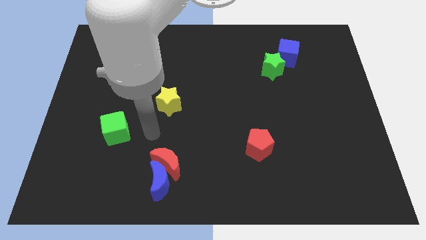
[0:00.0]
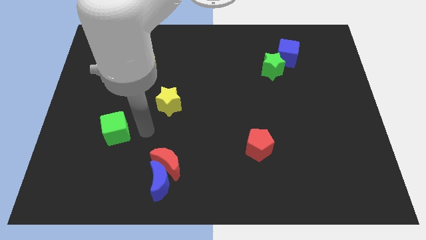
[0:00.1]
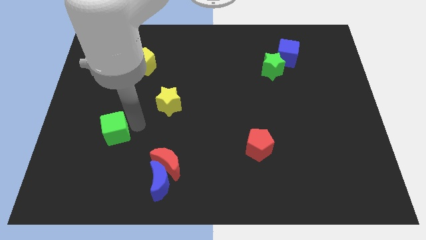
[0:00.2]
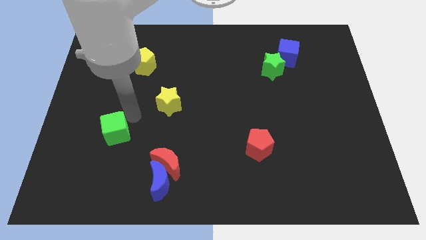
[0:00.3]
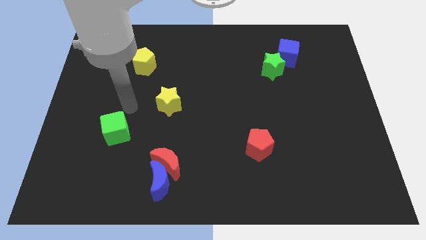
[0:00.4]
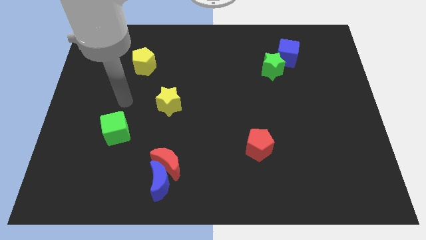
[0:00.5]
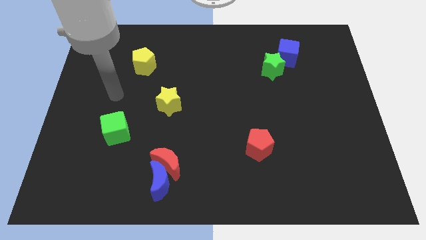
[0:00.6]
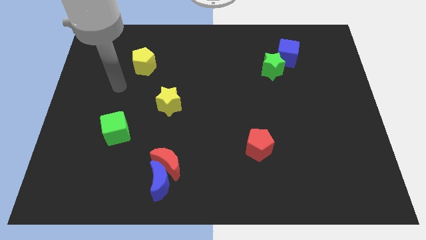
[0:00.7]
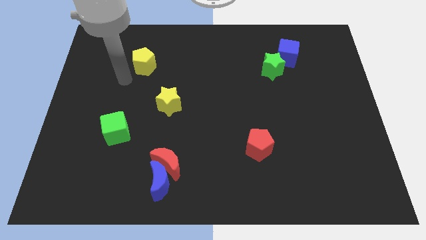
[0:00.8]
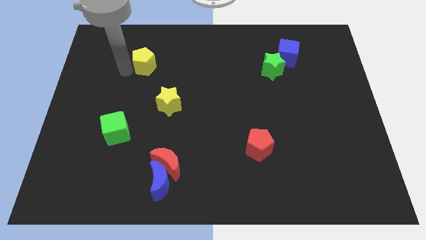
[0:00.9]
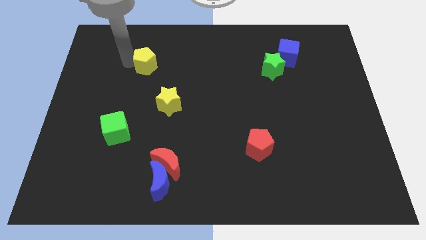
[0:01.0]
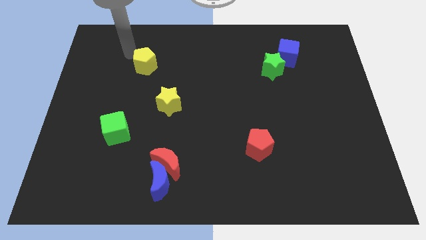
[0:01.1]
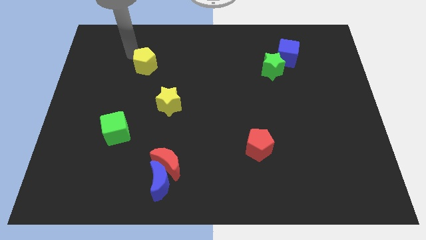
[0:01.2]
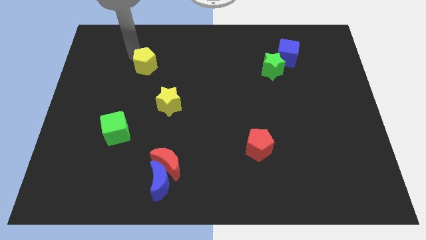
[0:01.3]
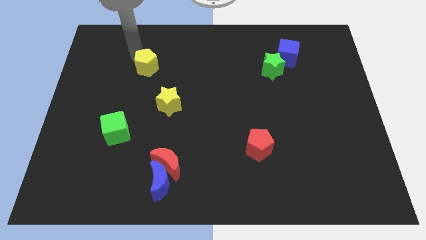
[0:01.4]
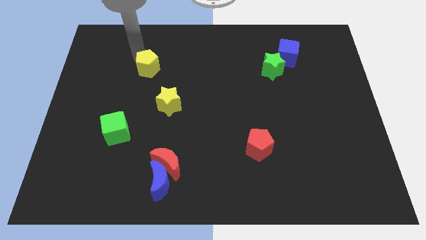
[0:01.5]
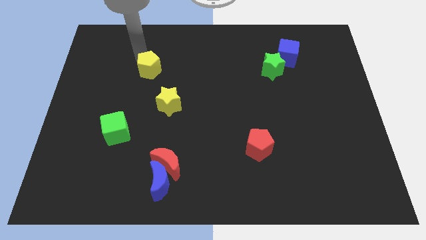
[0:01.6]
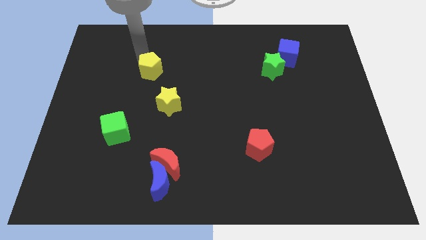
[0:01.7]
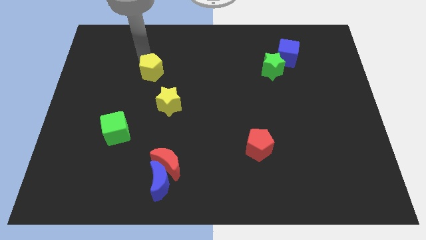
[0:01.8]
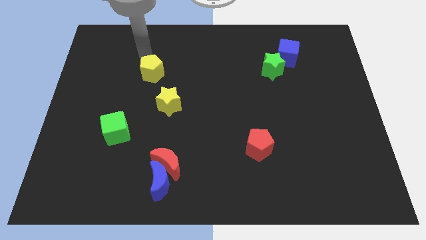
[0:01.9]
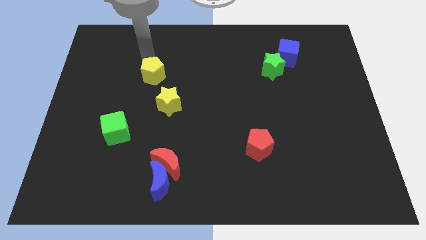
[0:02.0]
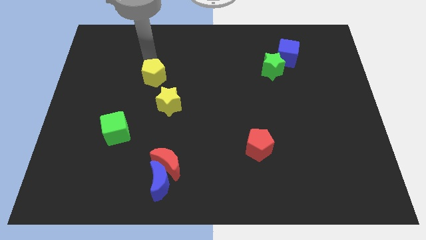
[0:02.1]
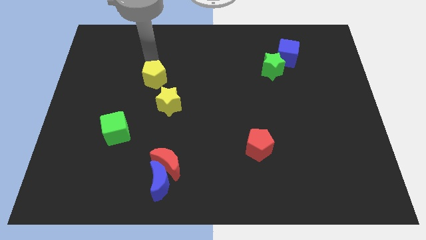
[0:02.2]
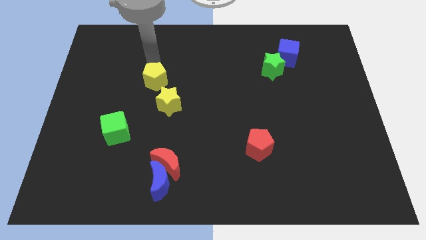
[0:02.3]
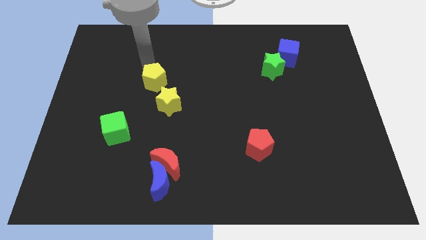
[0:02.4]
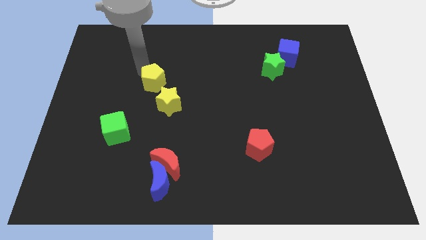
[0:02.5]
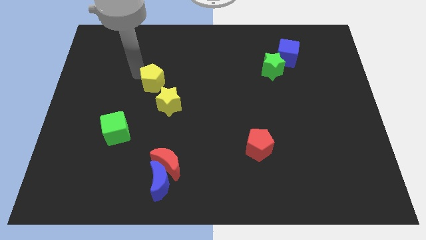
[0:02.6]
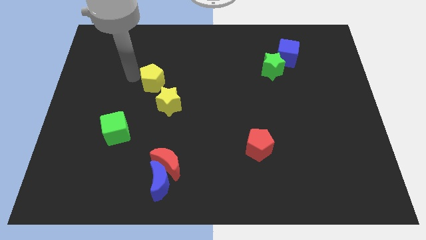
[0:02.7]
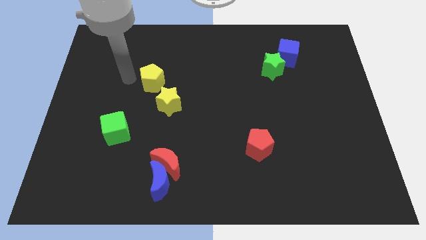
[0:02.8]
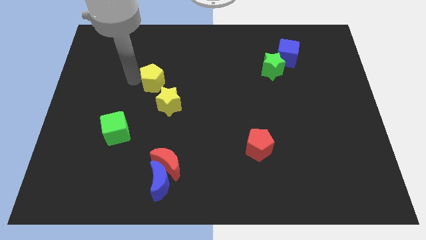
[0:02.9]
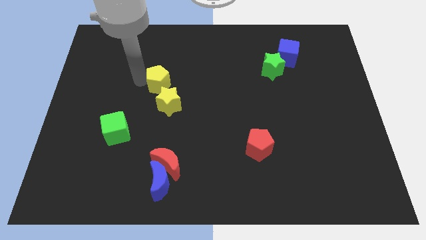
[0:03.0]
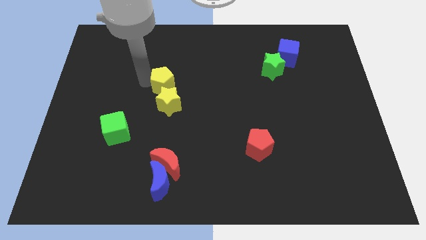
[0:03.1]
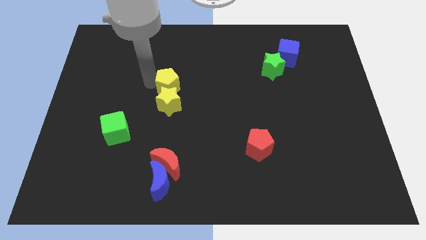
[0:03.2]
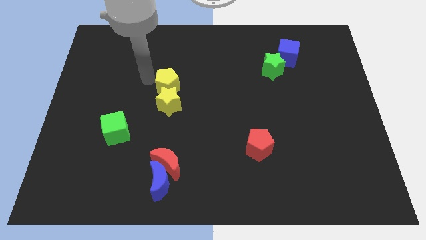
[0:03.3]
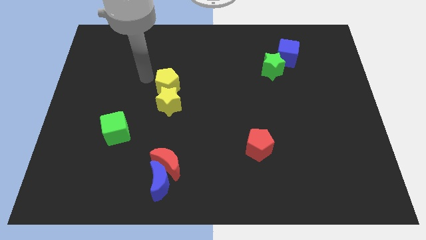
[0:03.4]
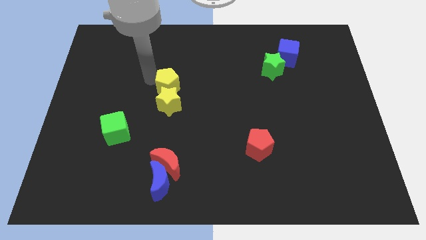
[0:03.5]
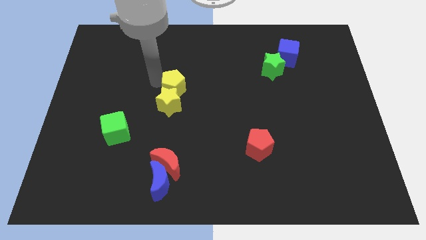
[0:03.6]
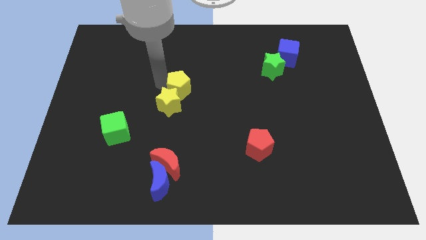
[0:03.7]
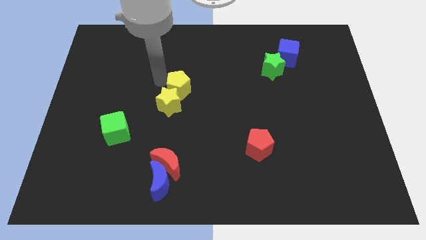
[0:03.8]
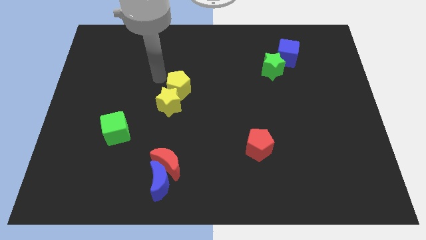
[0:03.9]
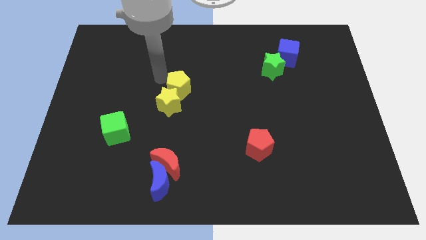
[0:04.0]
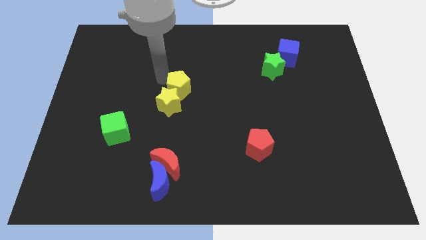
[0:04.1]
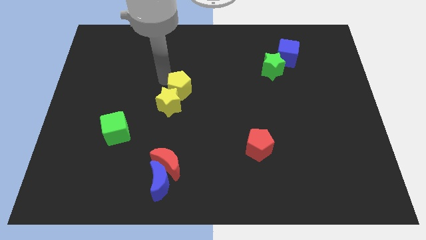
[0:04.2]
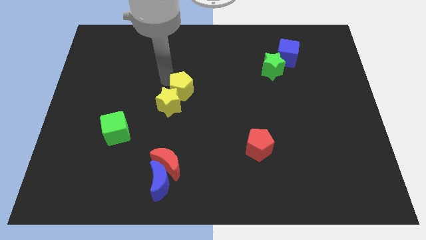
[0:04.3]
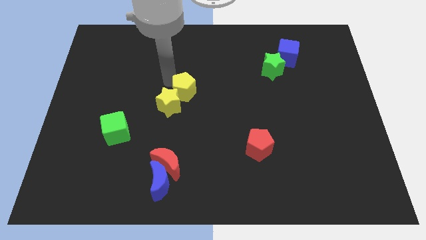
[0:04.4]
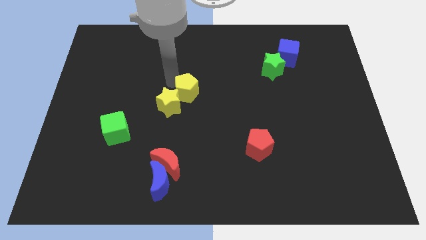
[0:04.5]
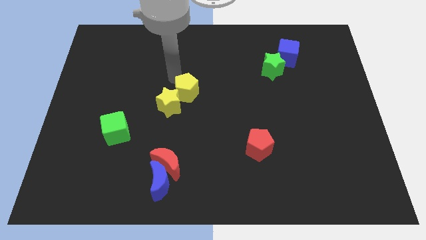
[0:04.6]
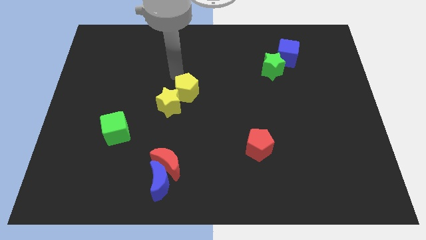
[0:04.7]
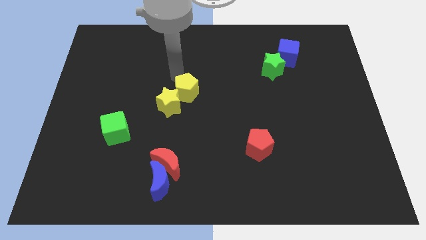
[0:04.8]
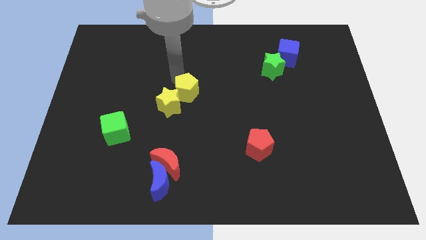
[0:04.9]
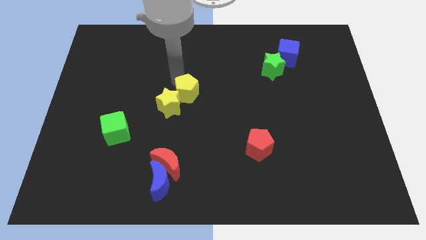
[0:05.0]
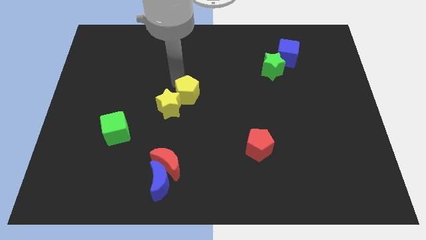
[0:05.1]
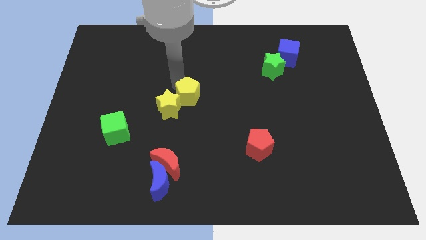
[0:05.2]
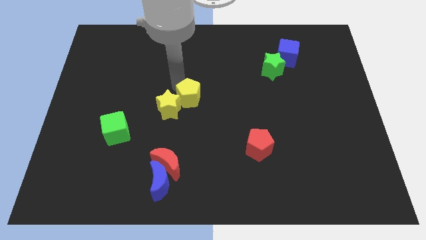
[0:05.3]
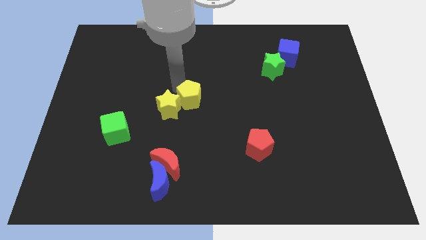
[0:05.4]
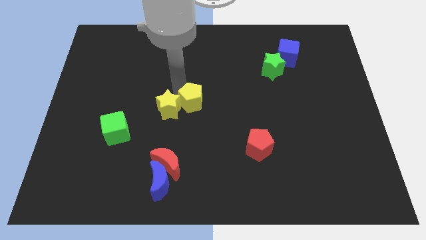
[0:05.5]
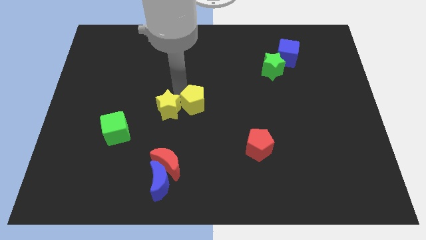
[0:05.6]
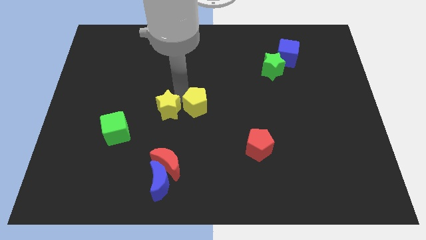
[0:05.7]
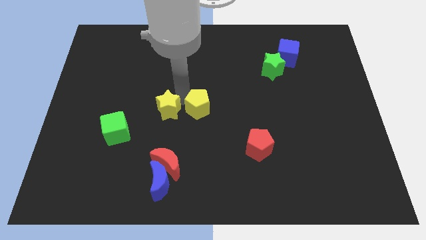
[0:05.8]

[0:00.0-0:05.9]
slide the yellow pentagon down and right

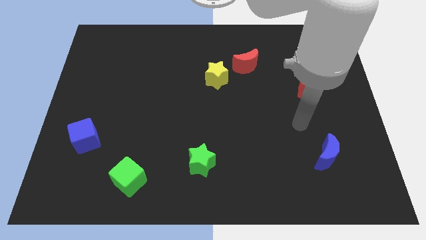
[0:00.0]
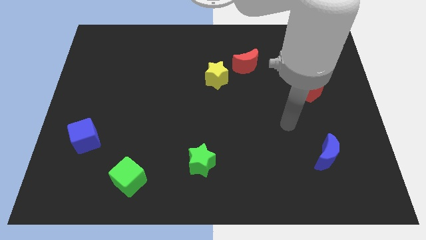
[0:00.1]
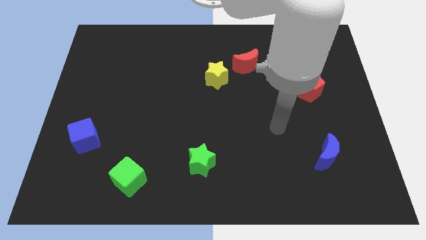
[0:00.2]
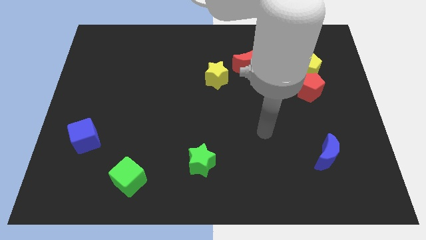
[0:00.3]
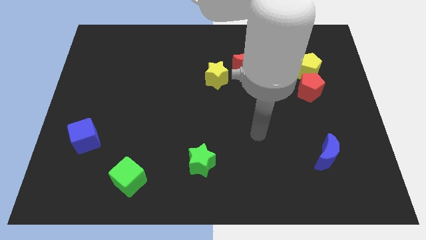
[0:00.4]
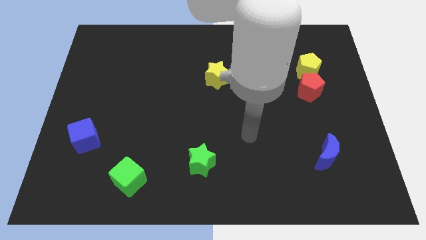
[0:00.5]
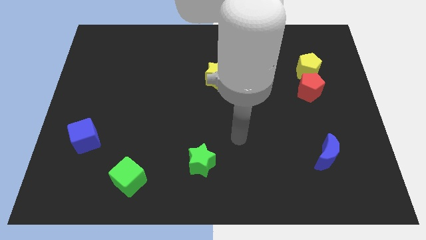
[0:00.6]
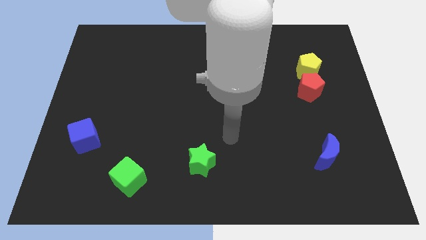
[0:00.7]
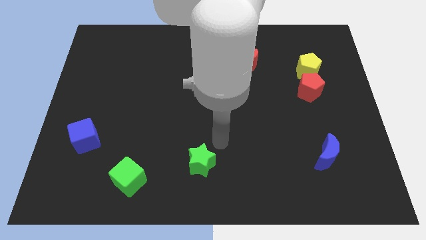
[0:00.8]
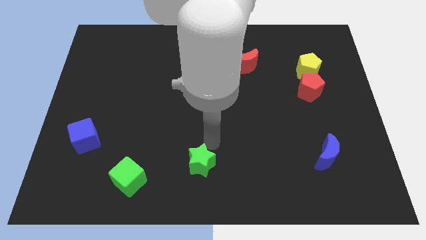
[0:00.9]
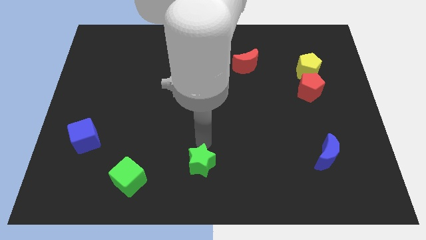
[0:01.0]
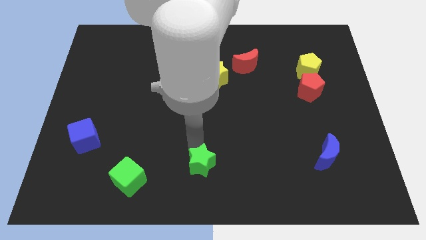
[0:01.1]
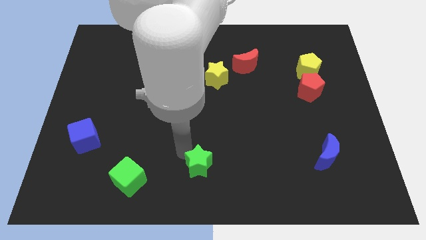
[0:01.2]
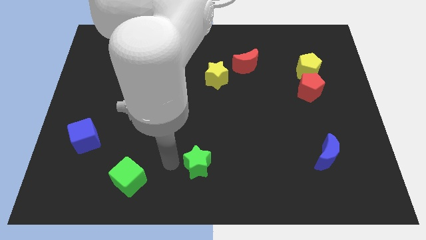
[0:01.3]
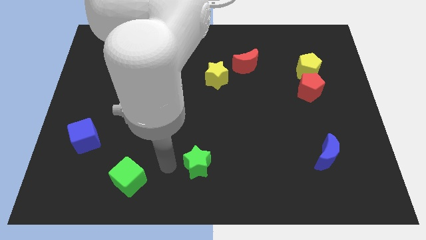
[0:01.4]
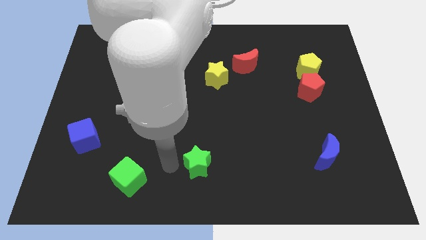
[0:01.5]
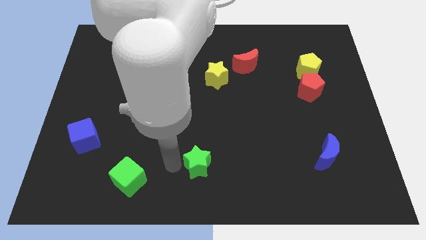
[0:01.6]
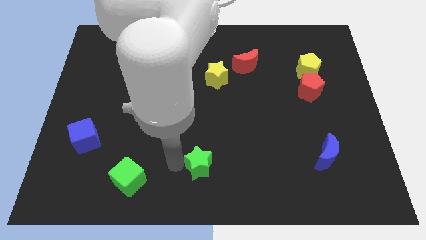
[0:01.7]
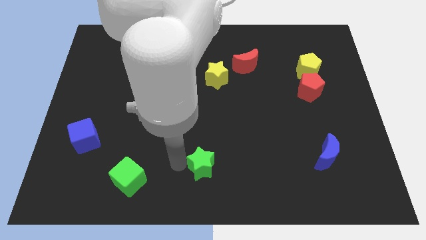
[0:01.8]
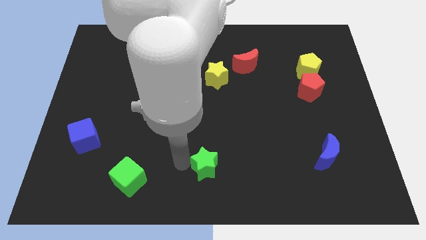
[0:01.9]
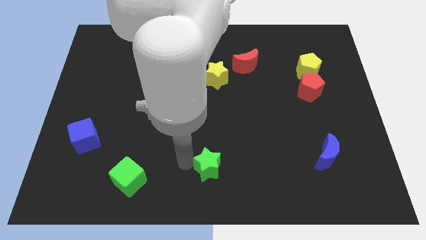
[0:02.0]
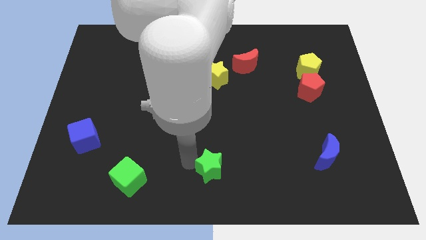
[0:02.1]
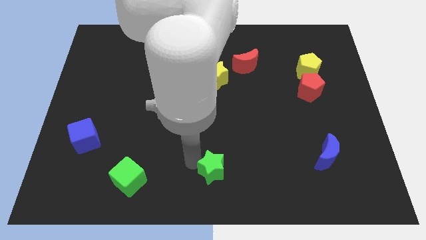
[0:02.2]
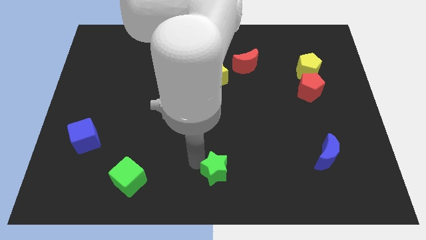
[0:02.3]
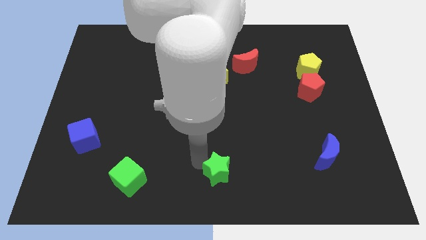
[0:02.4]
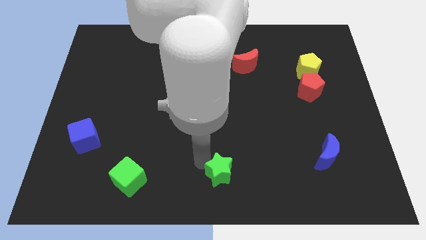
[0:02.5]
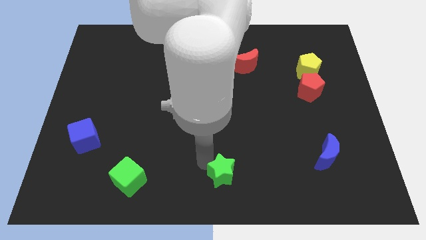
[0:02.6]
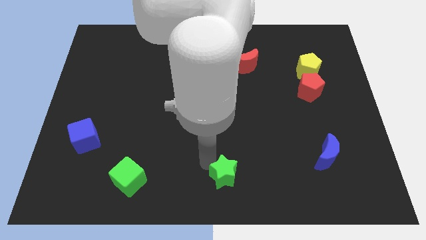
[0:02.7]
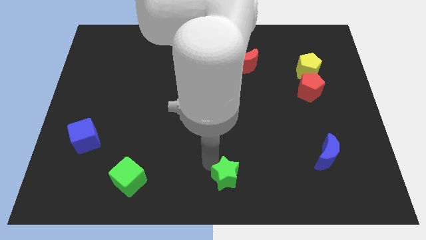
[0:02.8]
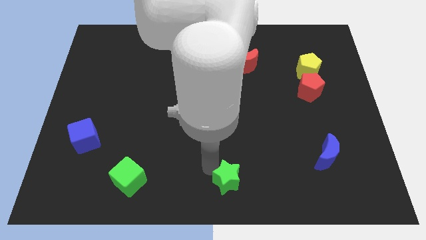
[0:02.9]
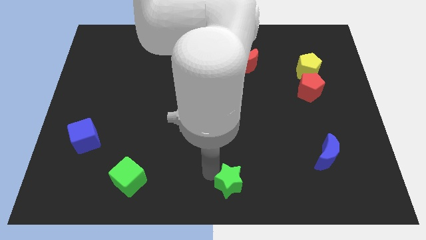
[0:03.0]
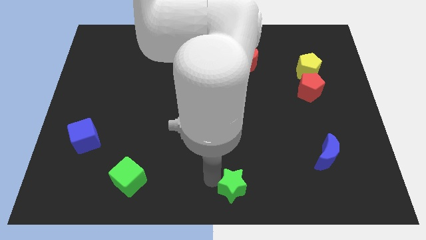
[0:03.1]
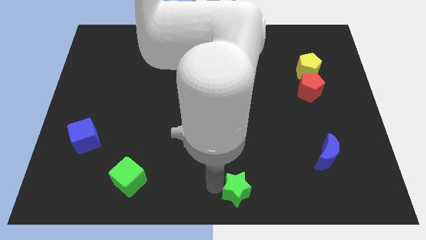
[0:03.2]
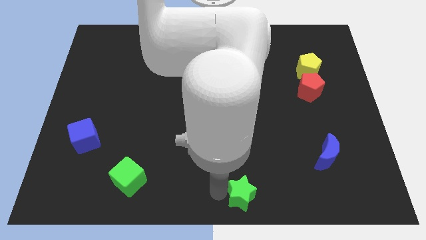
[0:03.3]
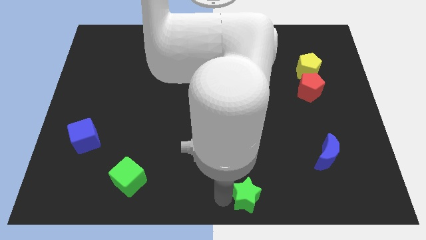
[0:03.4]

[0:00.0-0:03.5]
slightly push the green star to the right
